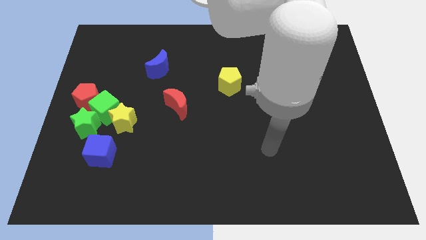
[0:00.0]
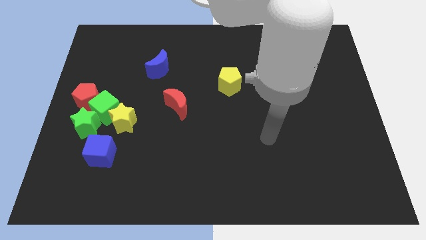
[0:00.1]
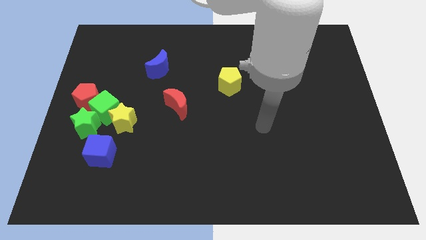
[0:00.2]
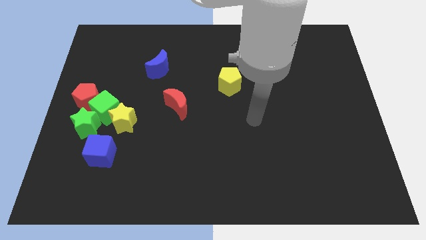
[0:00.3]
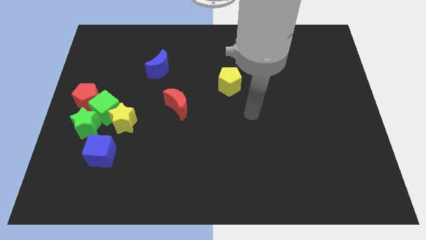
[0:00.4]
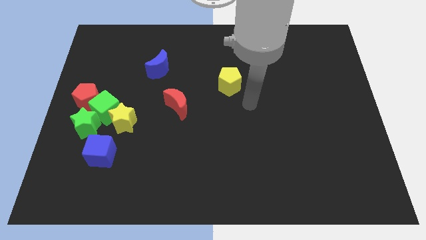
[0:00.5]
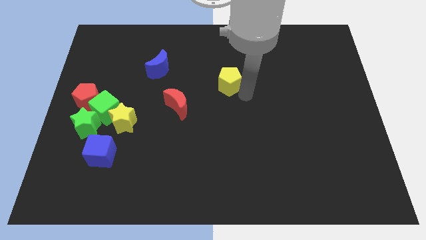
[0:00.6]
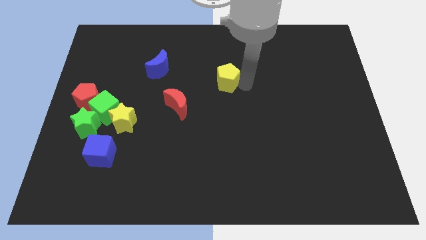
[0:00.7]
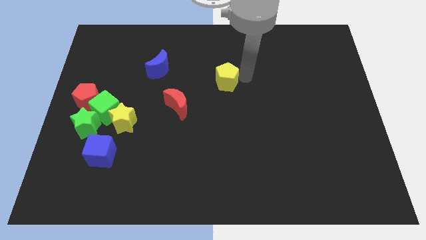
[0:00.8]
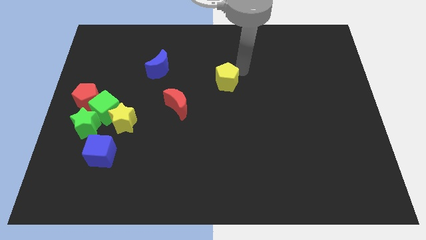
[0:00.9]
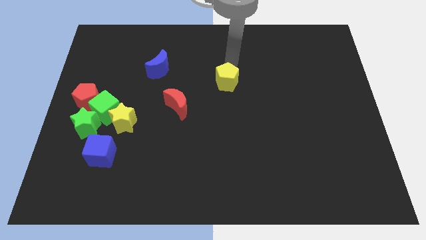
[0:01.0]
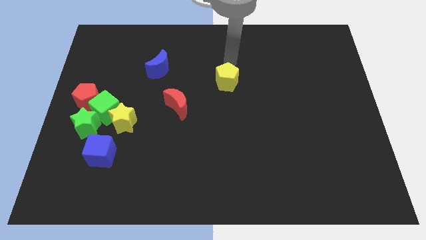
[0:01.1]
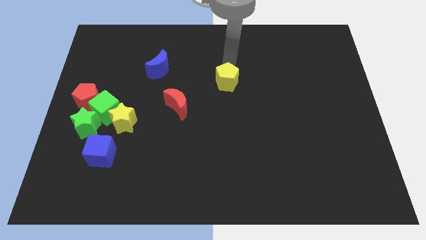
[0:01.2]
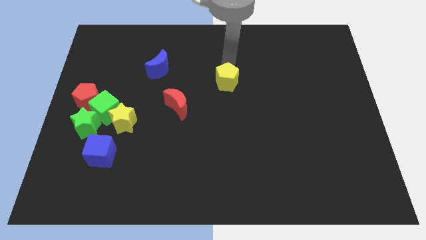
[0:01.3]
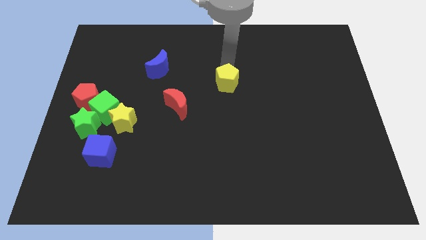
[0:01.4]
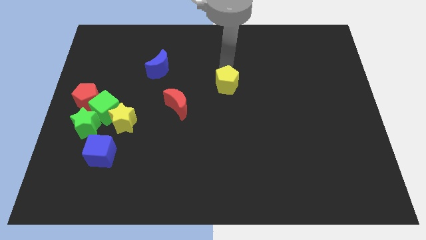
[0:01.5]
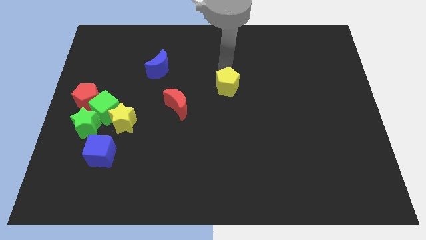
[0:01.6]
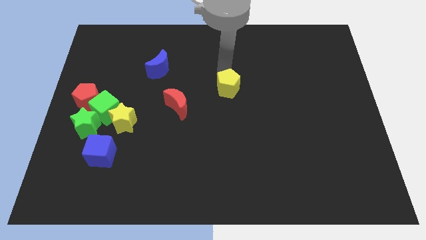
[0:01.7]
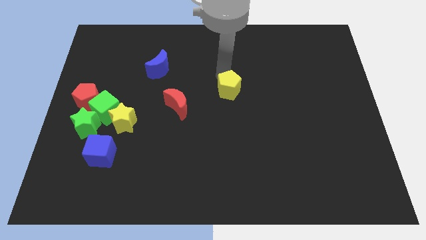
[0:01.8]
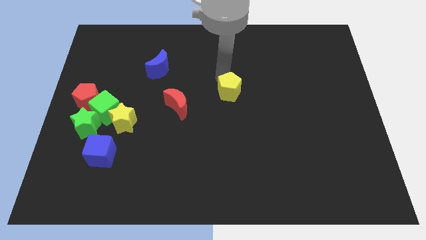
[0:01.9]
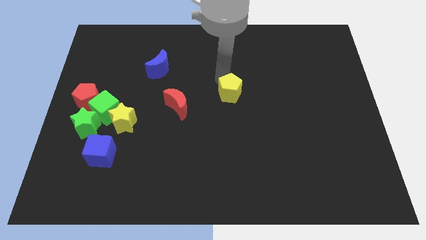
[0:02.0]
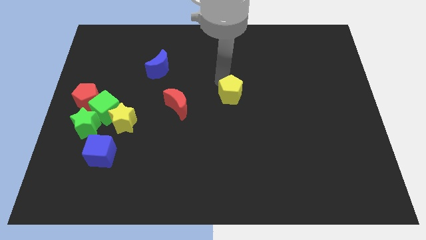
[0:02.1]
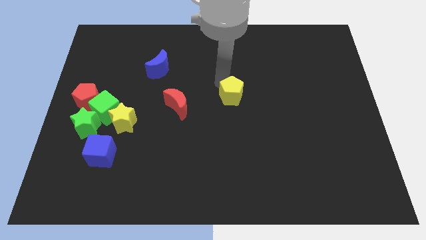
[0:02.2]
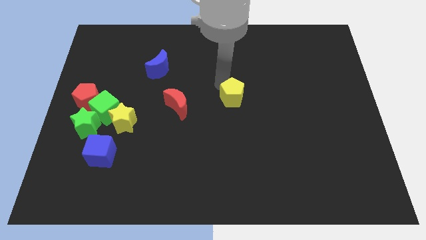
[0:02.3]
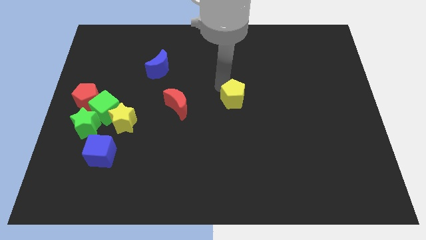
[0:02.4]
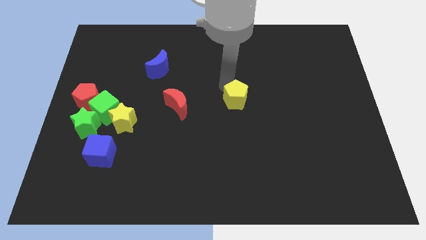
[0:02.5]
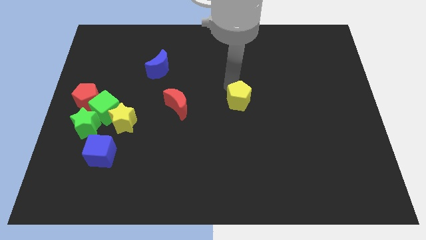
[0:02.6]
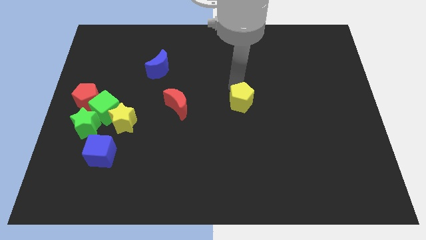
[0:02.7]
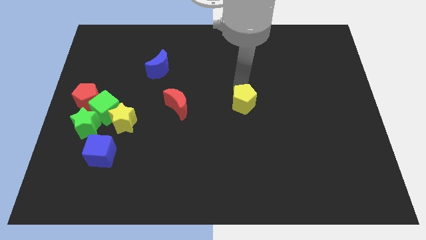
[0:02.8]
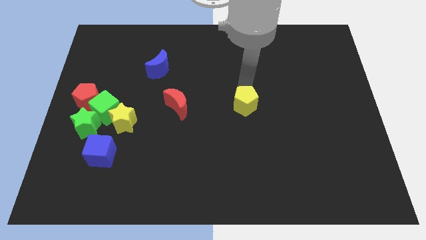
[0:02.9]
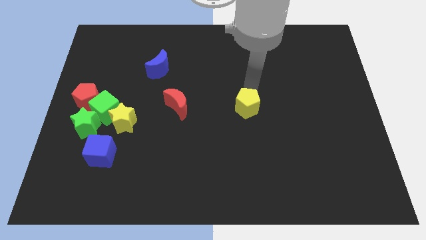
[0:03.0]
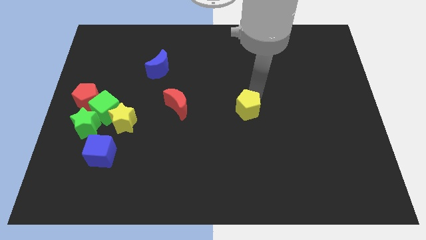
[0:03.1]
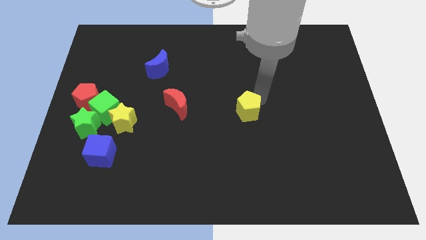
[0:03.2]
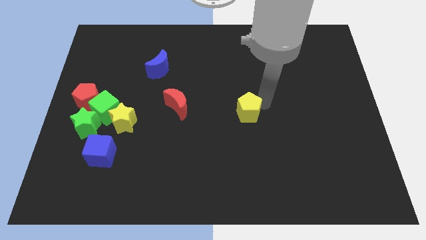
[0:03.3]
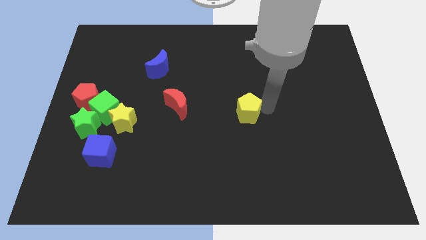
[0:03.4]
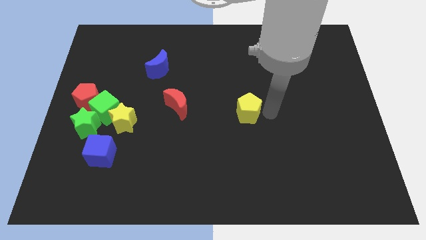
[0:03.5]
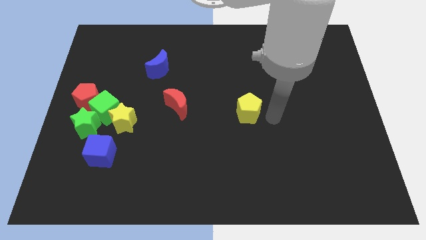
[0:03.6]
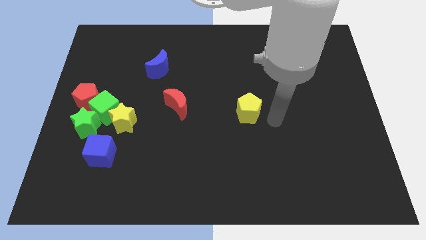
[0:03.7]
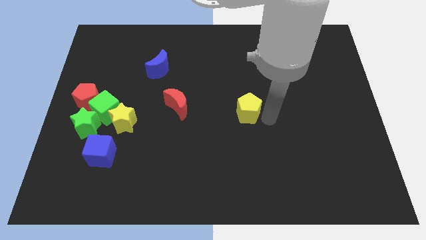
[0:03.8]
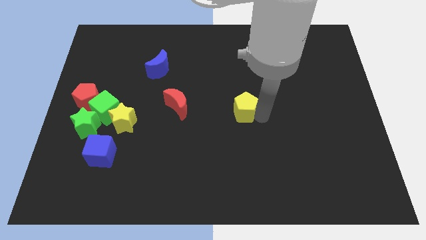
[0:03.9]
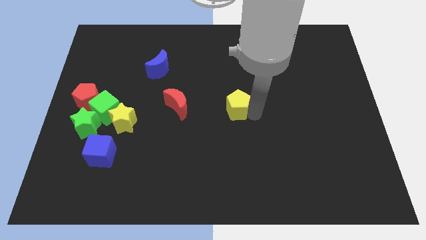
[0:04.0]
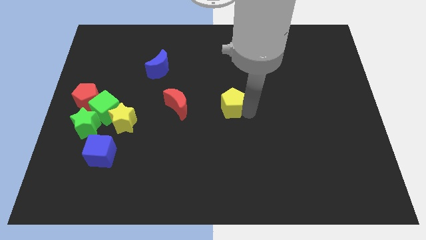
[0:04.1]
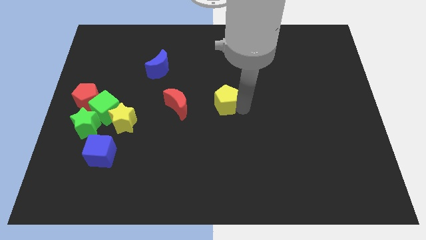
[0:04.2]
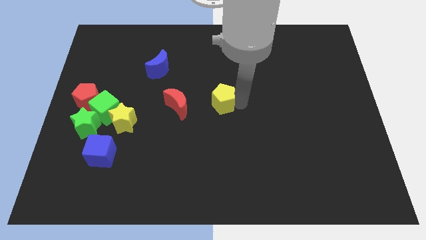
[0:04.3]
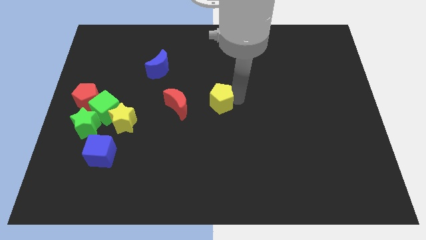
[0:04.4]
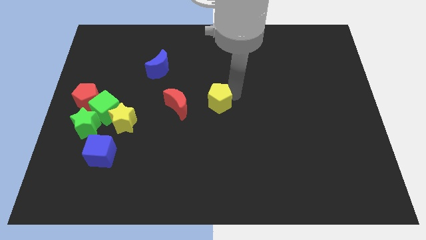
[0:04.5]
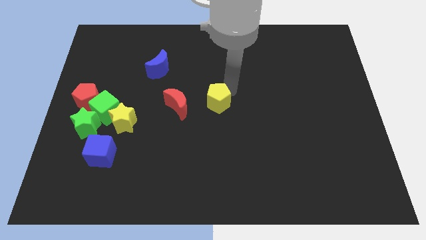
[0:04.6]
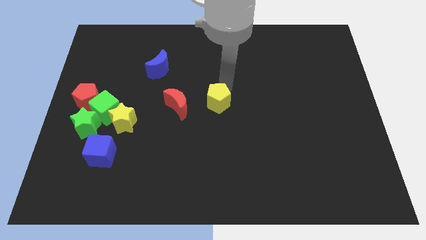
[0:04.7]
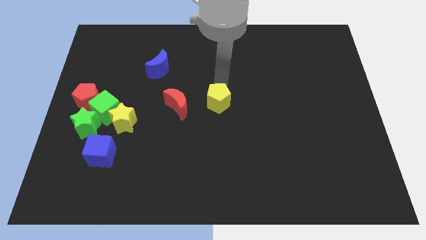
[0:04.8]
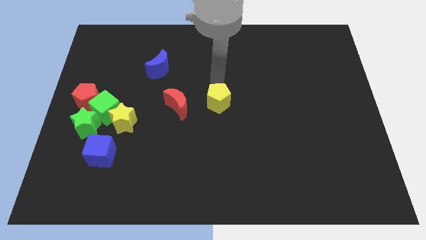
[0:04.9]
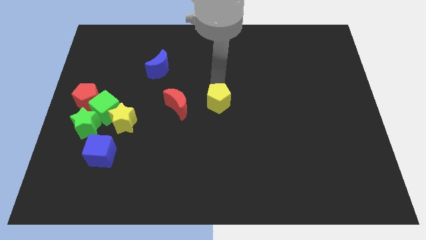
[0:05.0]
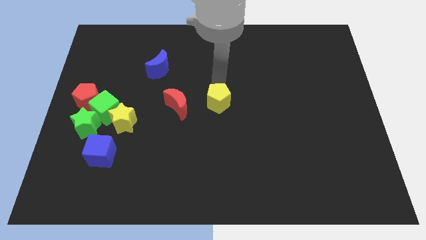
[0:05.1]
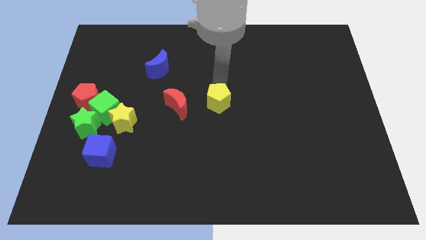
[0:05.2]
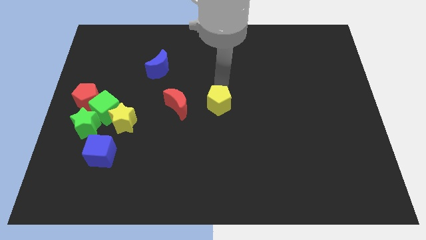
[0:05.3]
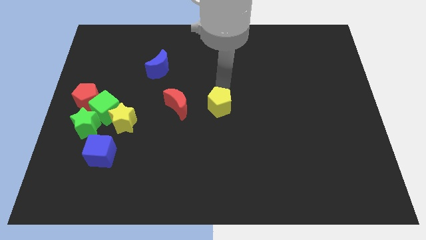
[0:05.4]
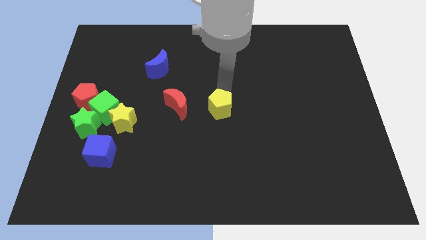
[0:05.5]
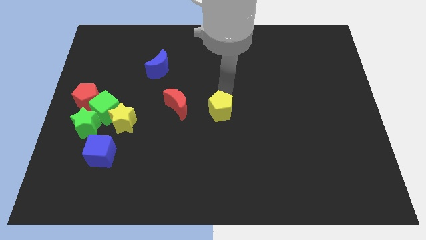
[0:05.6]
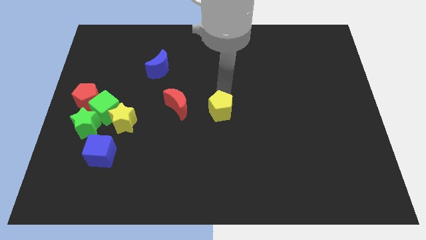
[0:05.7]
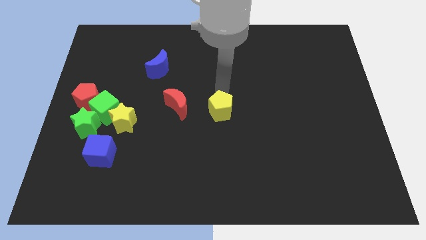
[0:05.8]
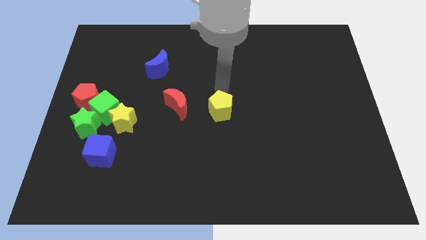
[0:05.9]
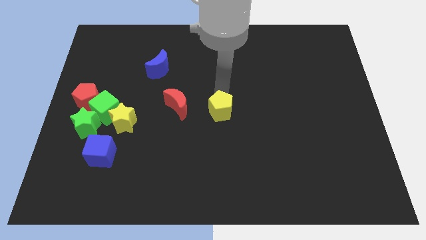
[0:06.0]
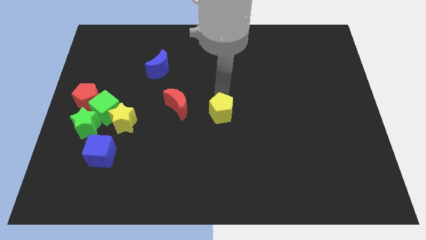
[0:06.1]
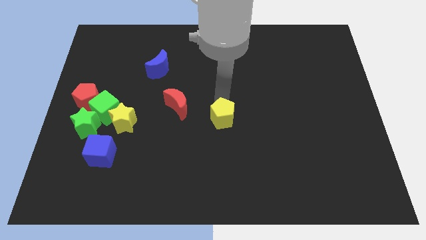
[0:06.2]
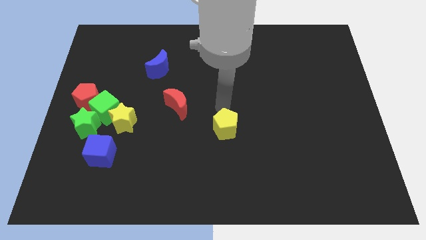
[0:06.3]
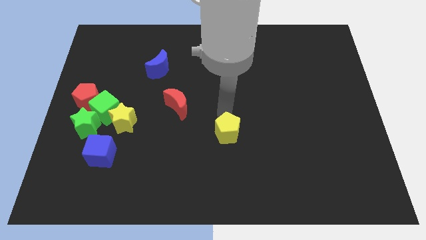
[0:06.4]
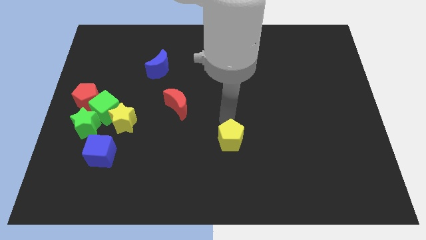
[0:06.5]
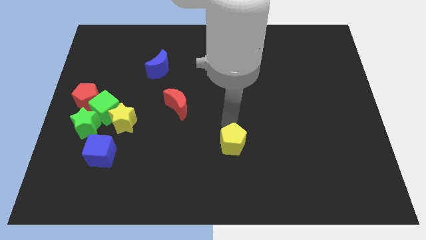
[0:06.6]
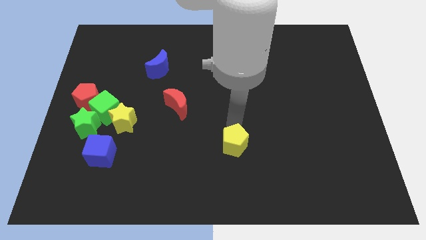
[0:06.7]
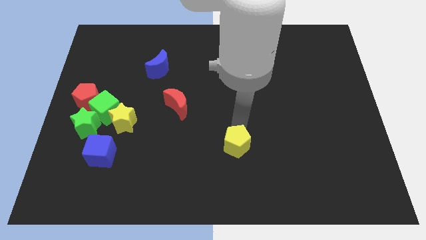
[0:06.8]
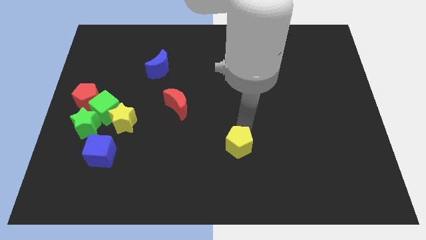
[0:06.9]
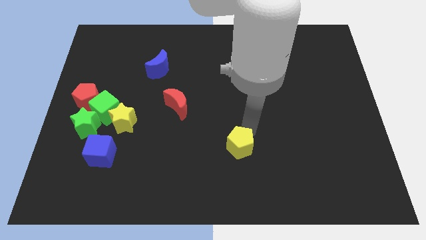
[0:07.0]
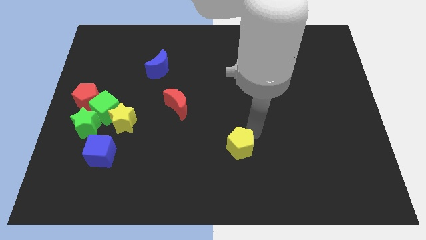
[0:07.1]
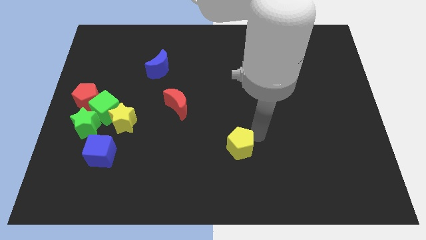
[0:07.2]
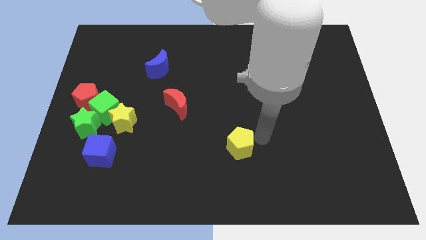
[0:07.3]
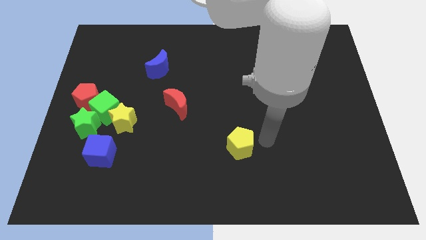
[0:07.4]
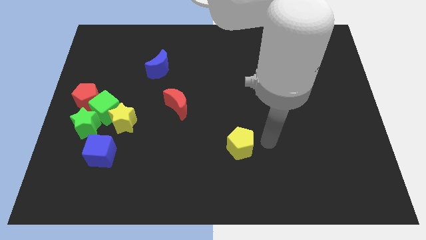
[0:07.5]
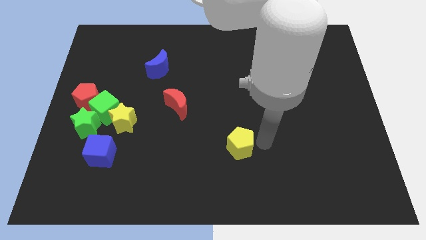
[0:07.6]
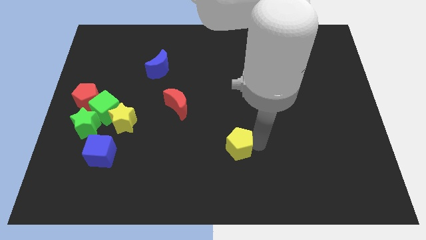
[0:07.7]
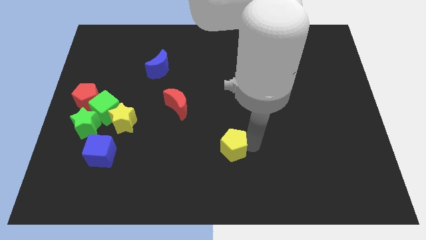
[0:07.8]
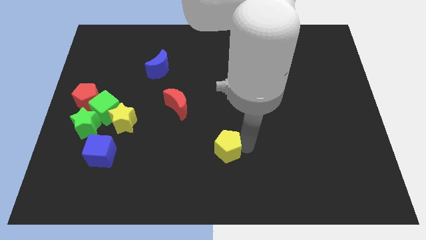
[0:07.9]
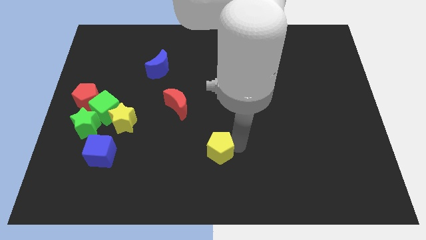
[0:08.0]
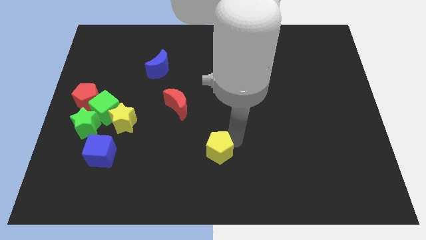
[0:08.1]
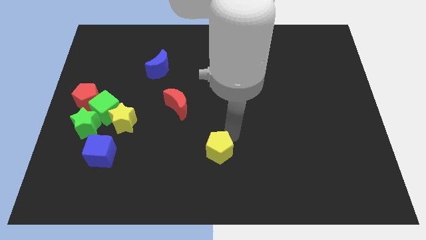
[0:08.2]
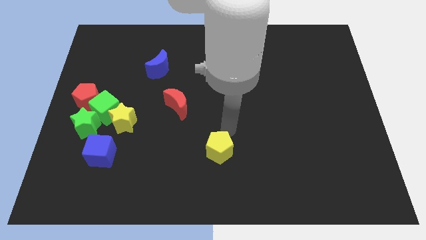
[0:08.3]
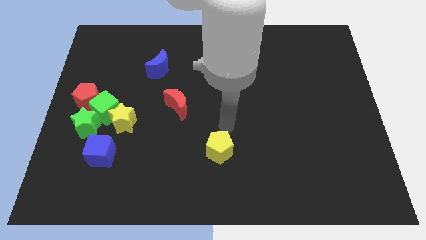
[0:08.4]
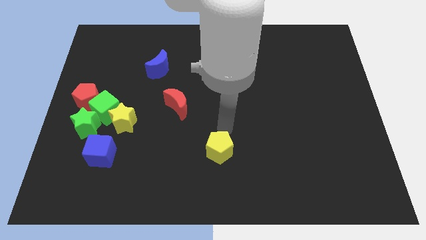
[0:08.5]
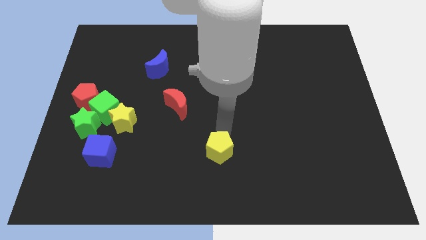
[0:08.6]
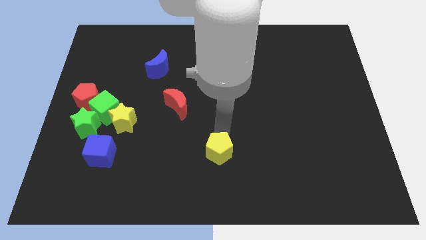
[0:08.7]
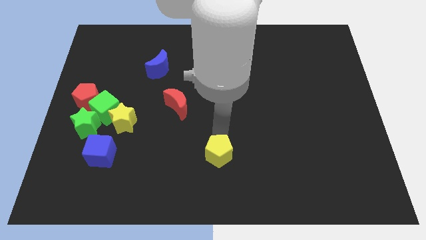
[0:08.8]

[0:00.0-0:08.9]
put the yellow pentagon to the bottom side
